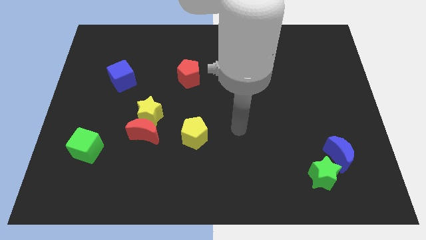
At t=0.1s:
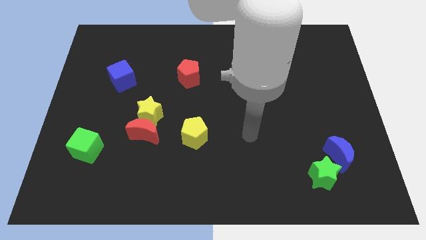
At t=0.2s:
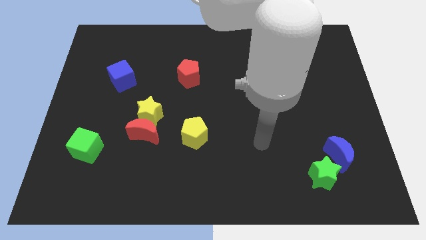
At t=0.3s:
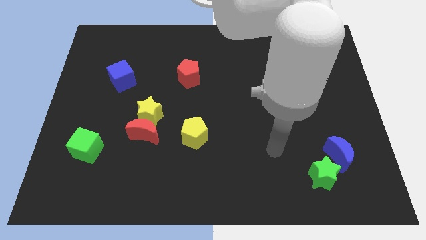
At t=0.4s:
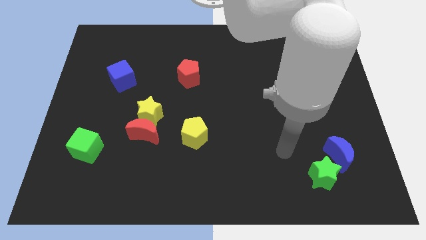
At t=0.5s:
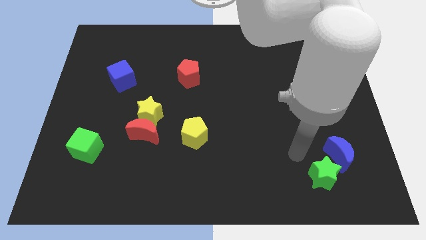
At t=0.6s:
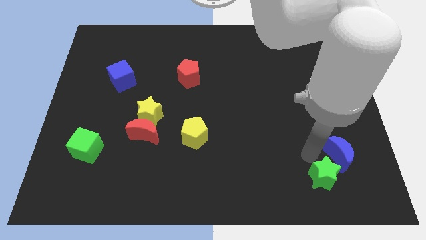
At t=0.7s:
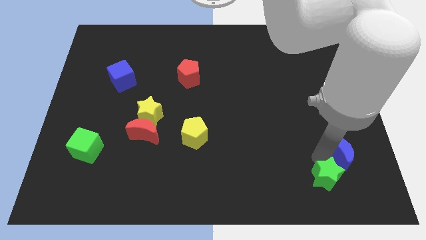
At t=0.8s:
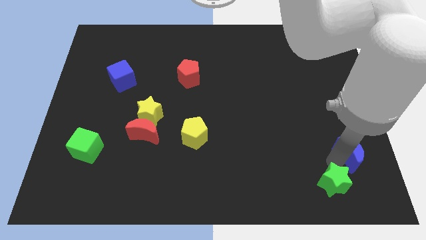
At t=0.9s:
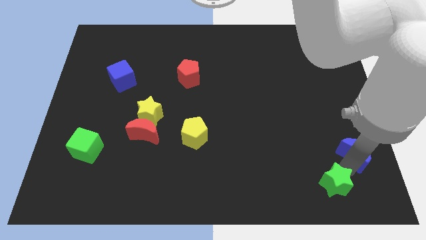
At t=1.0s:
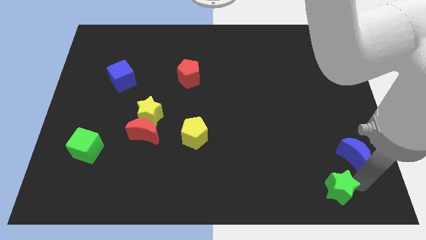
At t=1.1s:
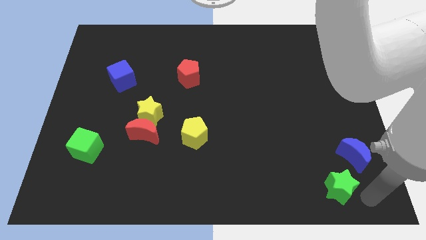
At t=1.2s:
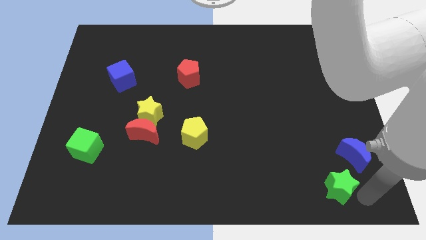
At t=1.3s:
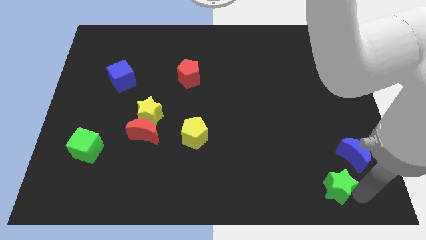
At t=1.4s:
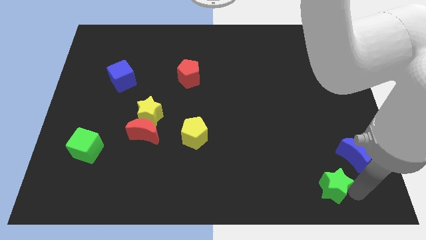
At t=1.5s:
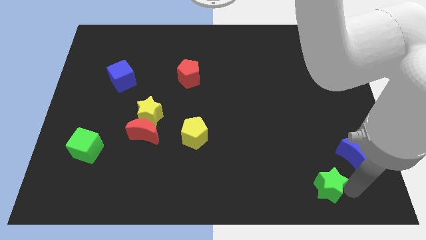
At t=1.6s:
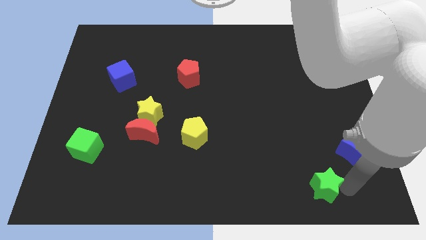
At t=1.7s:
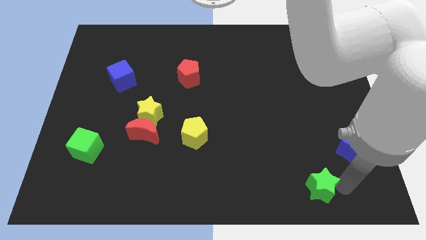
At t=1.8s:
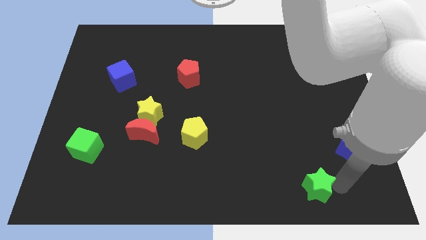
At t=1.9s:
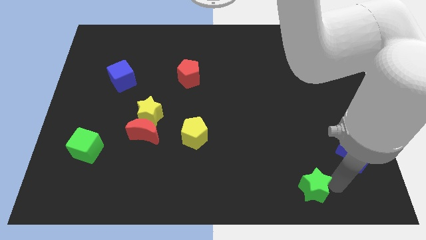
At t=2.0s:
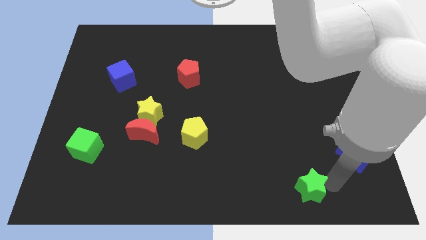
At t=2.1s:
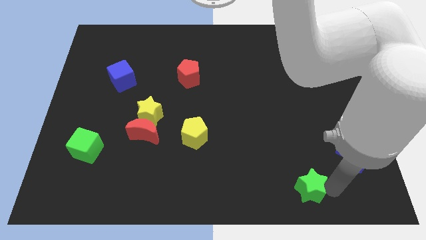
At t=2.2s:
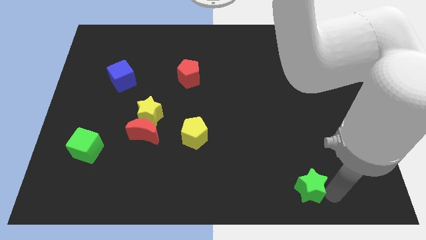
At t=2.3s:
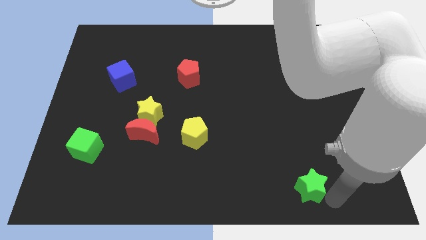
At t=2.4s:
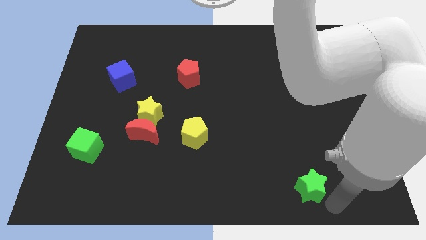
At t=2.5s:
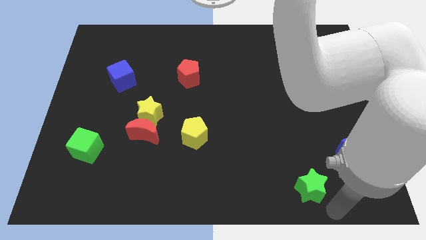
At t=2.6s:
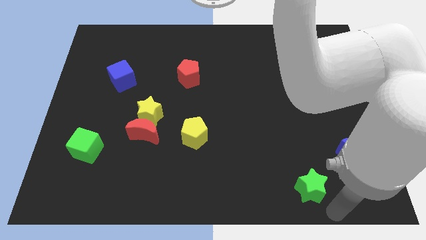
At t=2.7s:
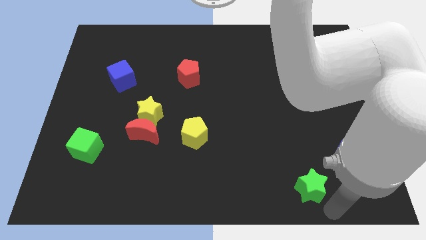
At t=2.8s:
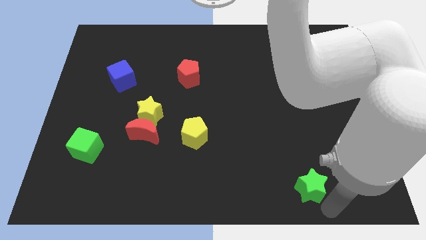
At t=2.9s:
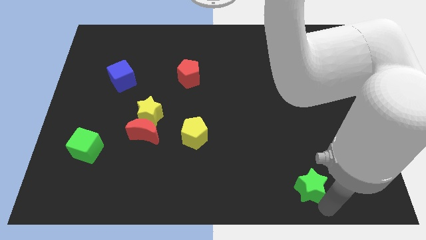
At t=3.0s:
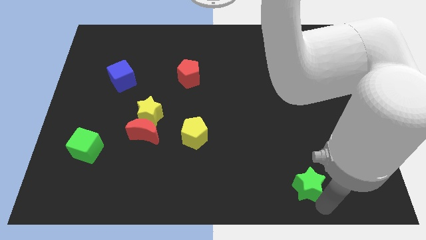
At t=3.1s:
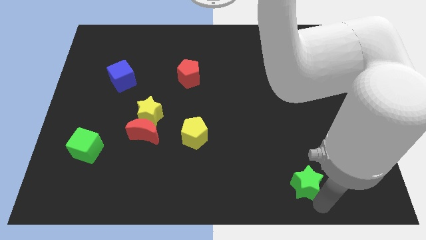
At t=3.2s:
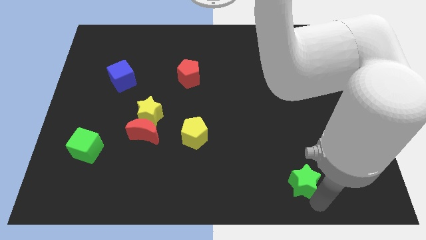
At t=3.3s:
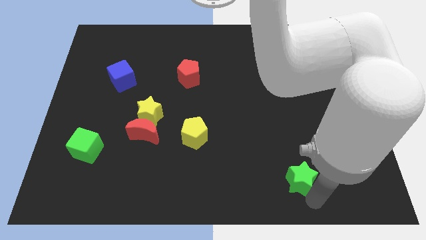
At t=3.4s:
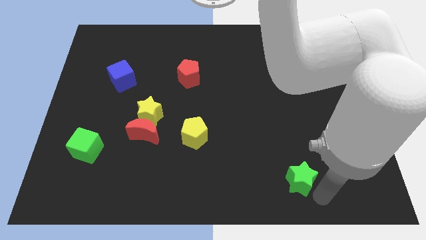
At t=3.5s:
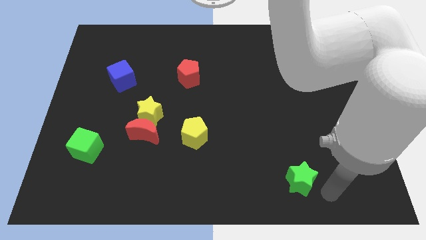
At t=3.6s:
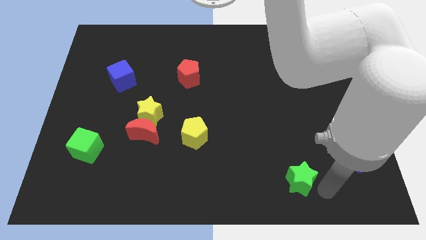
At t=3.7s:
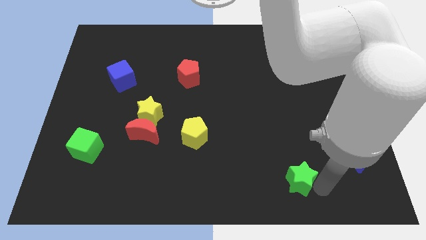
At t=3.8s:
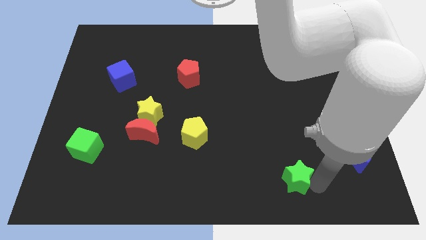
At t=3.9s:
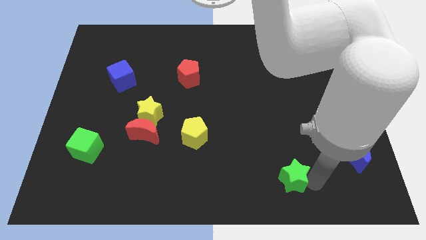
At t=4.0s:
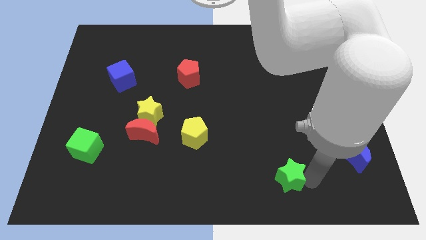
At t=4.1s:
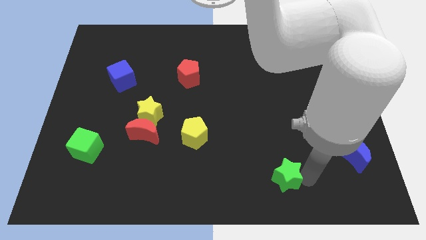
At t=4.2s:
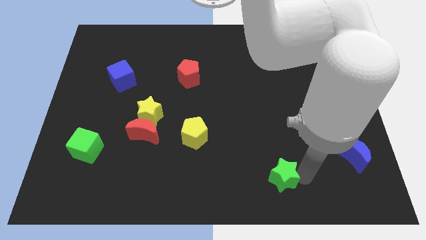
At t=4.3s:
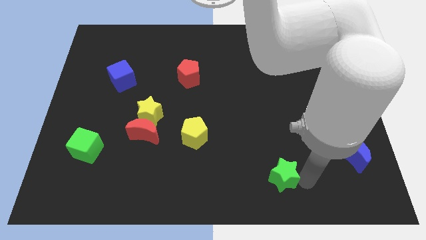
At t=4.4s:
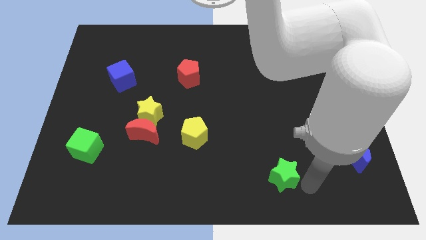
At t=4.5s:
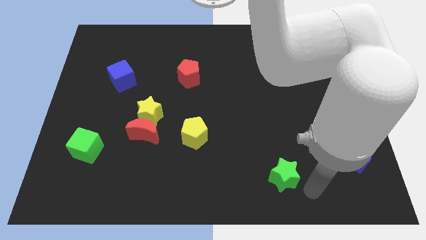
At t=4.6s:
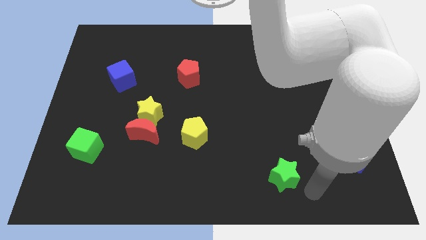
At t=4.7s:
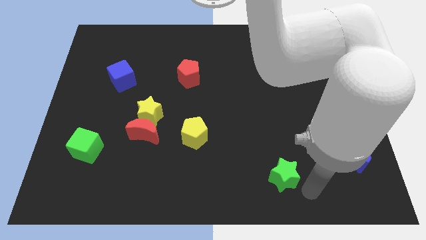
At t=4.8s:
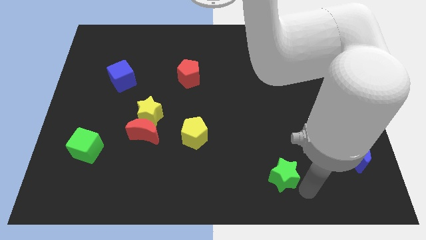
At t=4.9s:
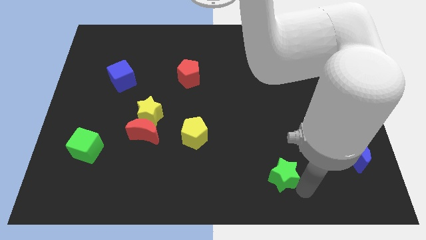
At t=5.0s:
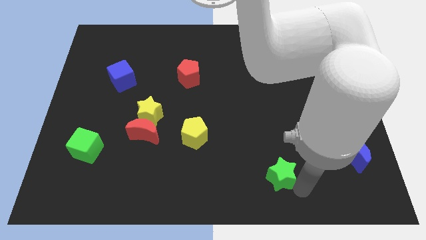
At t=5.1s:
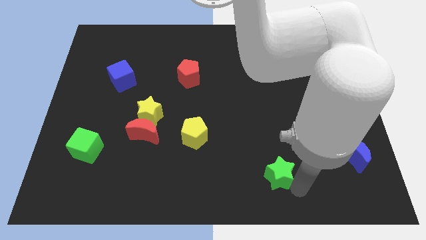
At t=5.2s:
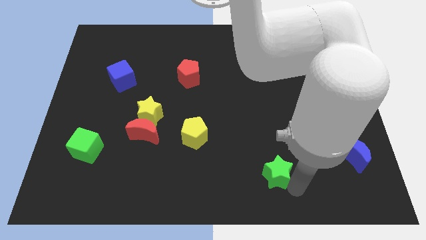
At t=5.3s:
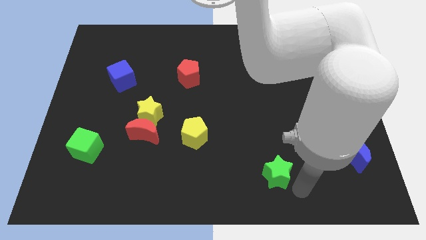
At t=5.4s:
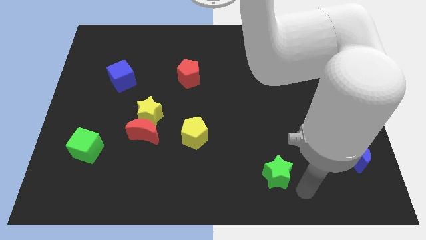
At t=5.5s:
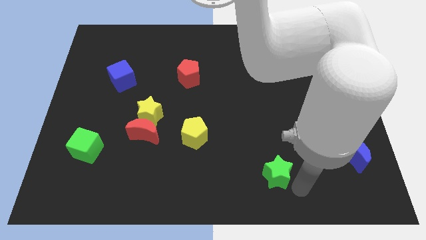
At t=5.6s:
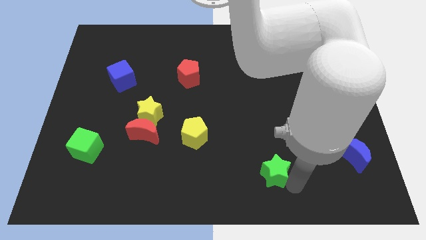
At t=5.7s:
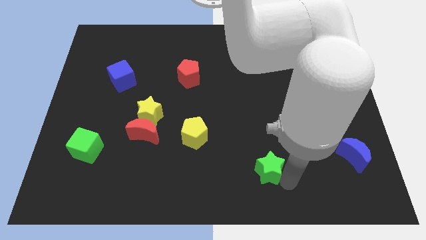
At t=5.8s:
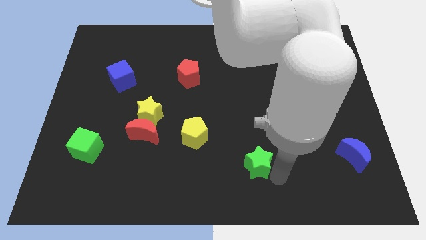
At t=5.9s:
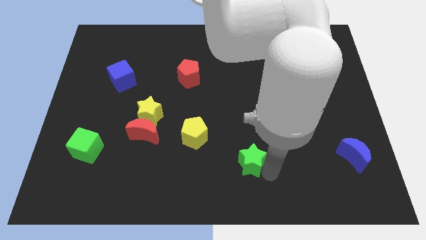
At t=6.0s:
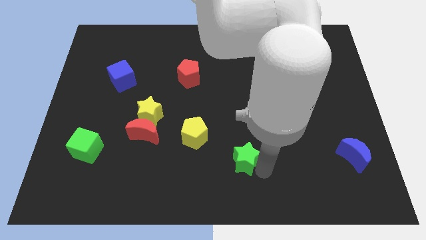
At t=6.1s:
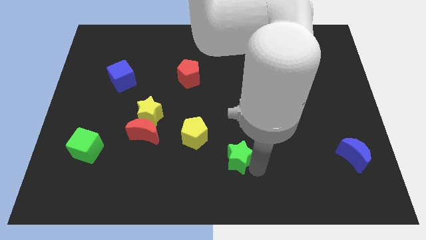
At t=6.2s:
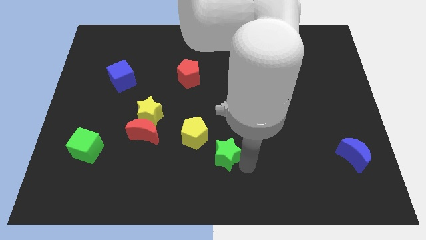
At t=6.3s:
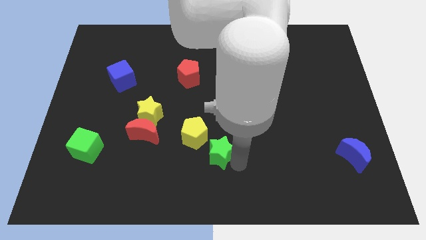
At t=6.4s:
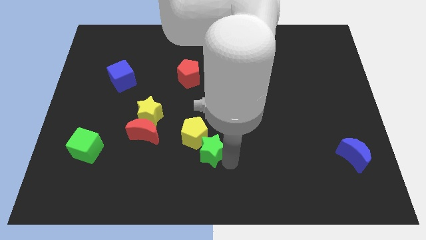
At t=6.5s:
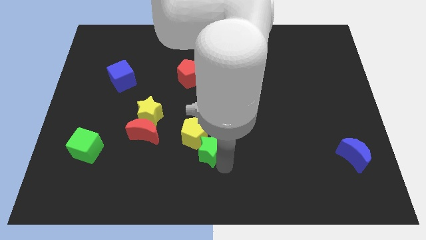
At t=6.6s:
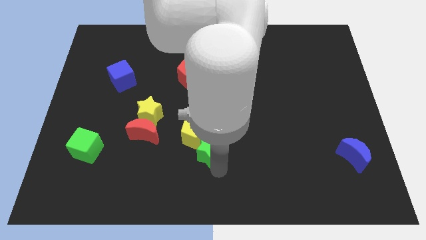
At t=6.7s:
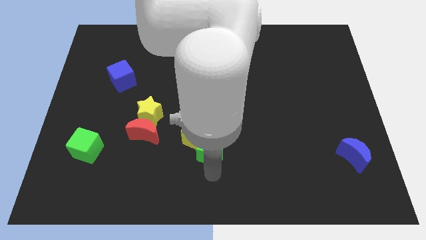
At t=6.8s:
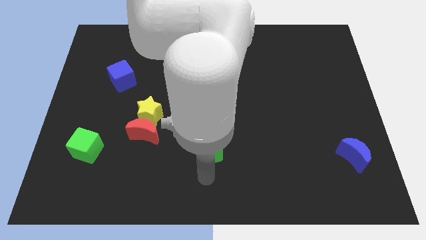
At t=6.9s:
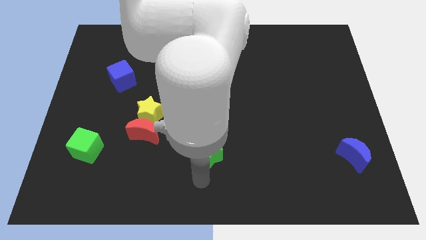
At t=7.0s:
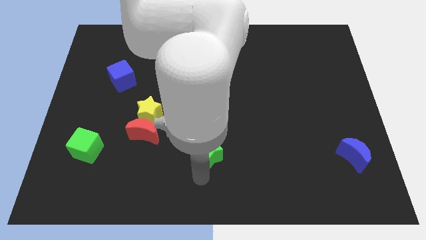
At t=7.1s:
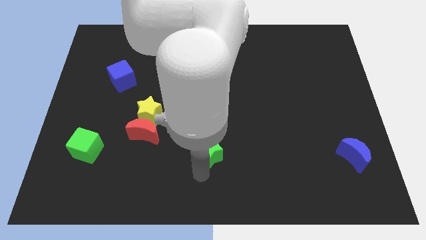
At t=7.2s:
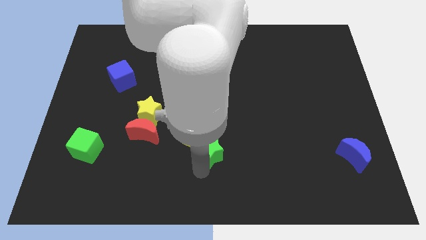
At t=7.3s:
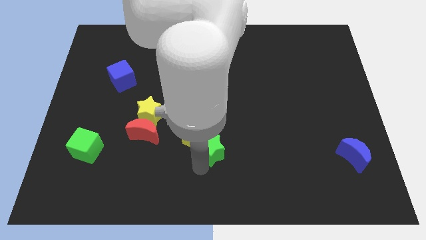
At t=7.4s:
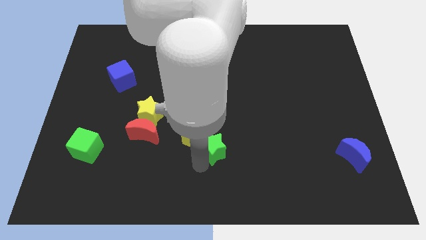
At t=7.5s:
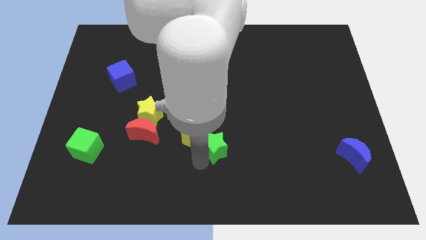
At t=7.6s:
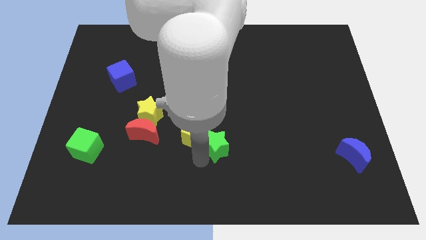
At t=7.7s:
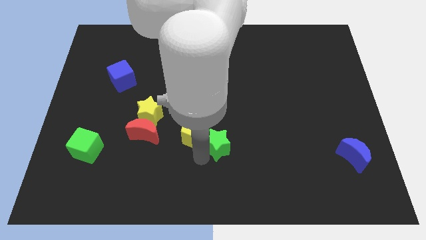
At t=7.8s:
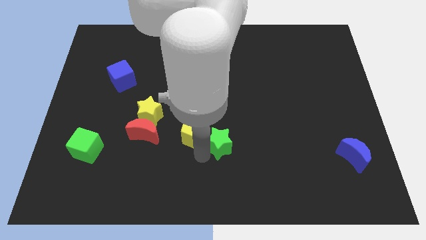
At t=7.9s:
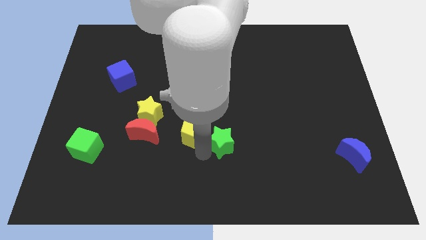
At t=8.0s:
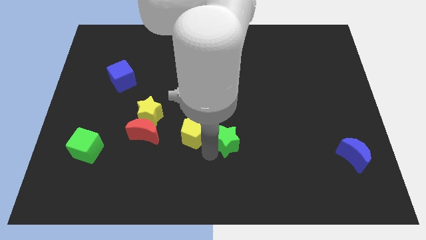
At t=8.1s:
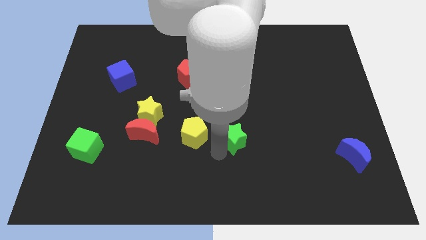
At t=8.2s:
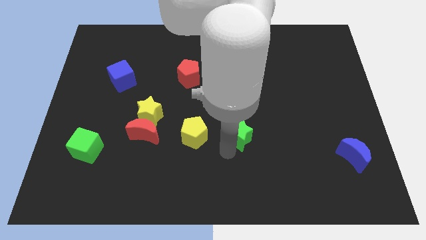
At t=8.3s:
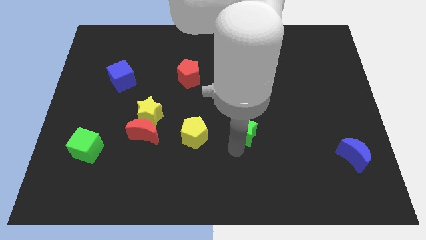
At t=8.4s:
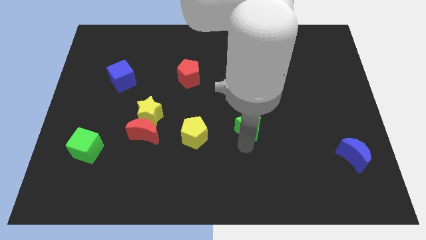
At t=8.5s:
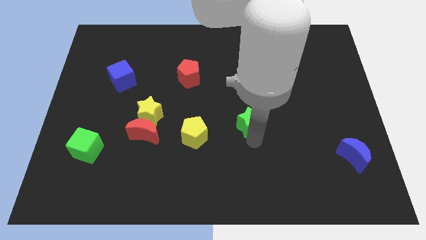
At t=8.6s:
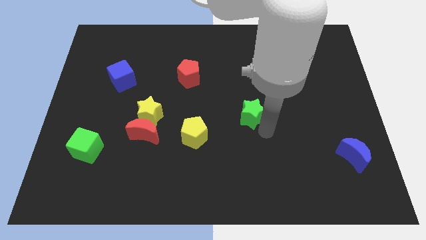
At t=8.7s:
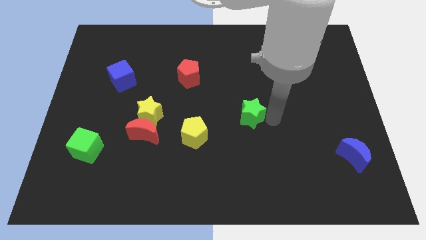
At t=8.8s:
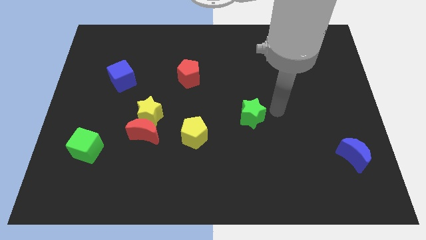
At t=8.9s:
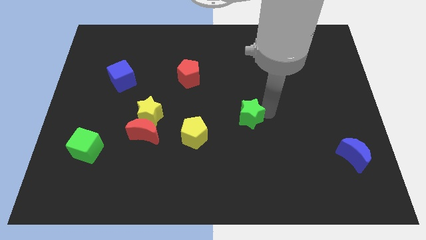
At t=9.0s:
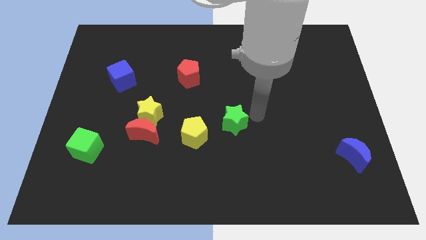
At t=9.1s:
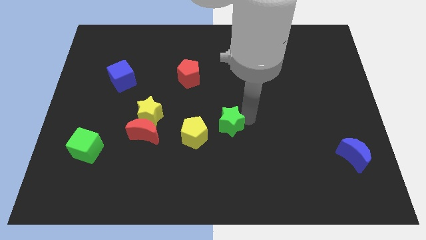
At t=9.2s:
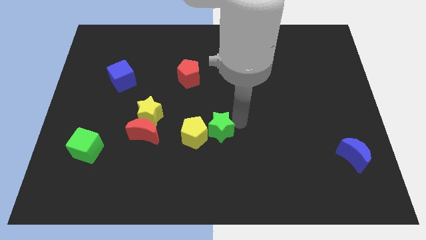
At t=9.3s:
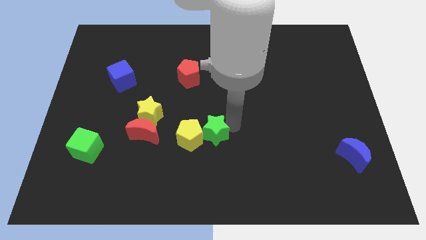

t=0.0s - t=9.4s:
put the green star to the right of the red moon
